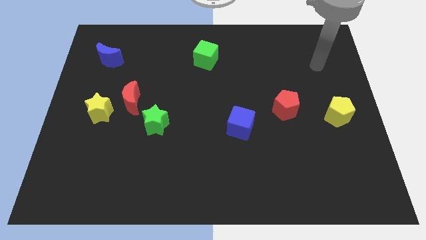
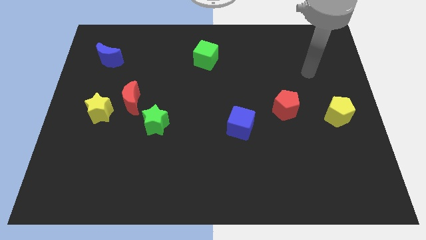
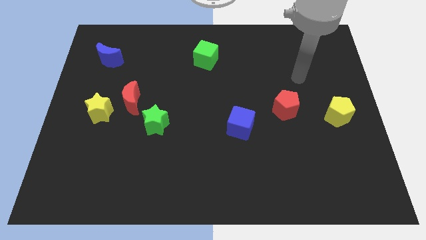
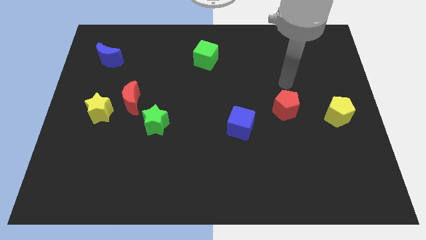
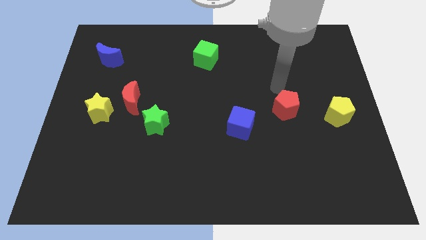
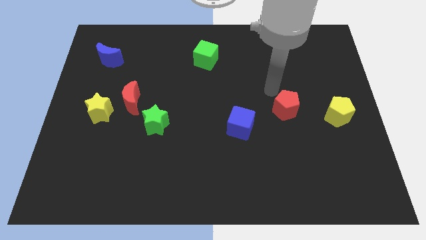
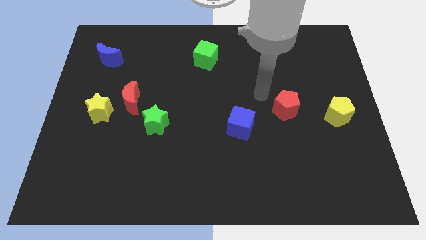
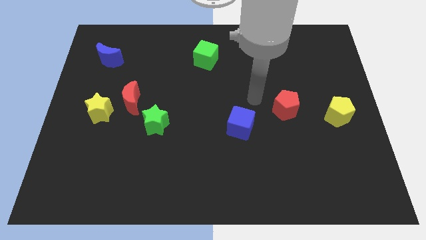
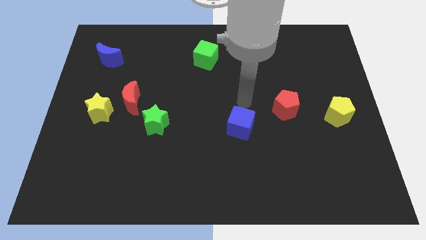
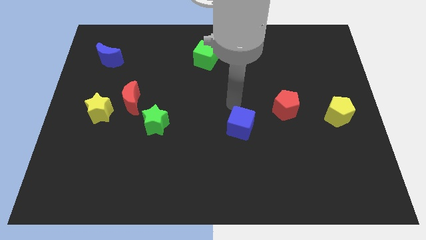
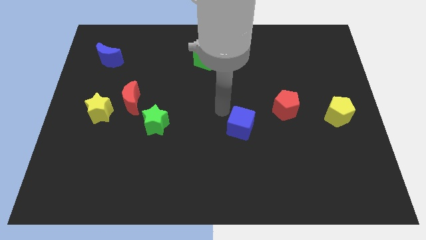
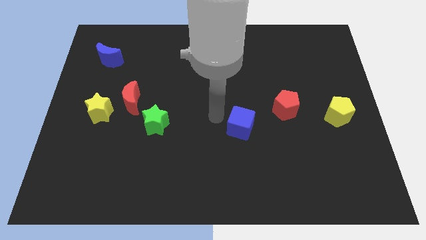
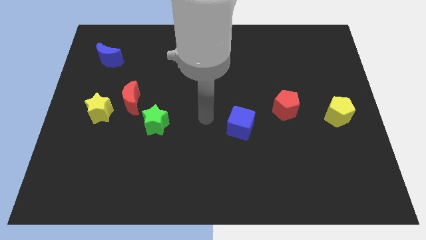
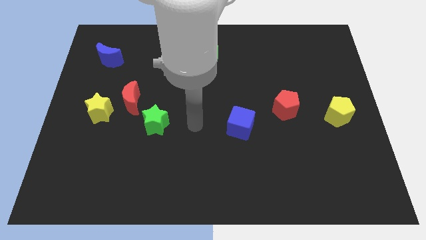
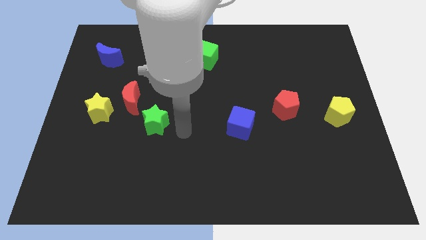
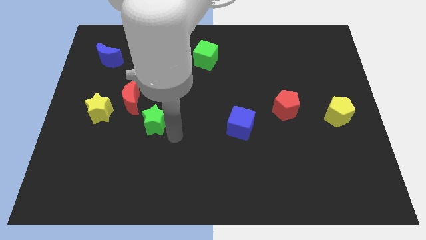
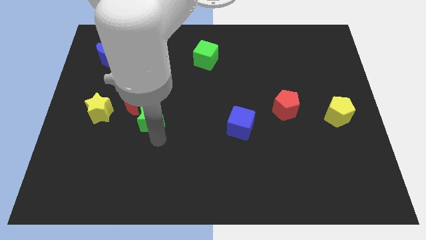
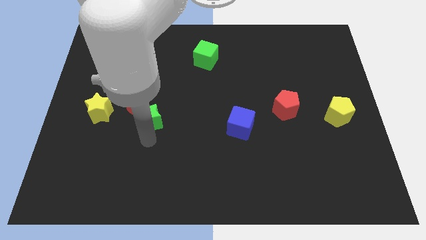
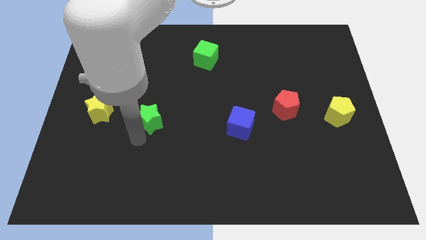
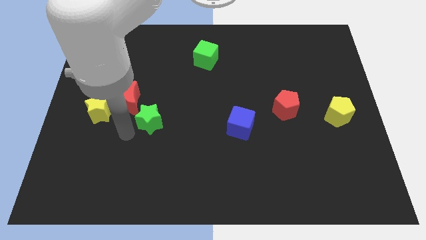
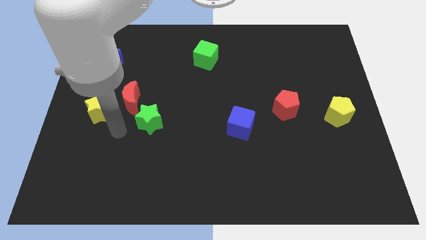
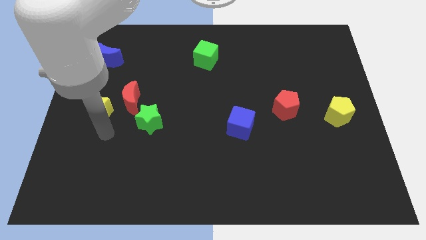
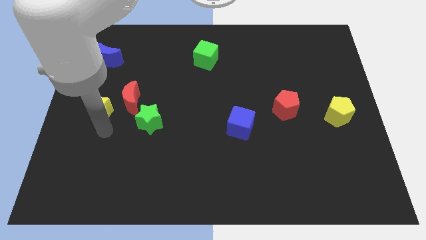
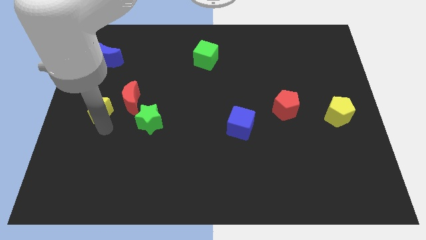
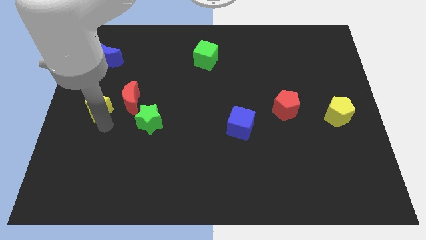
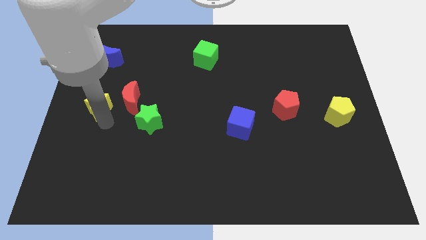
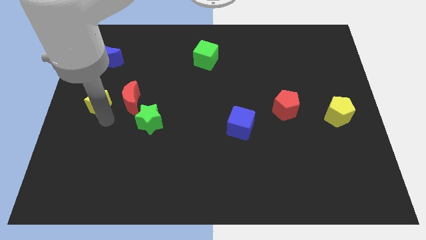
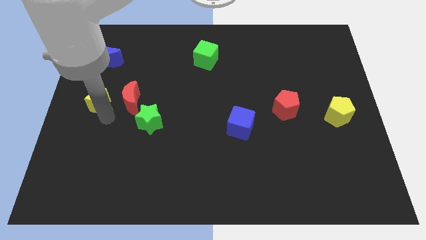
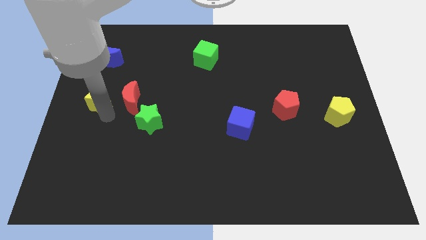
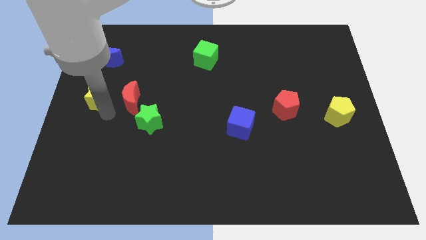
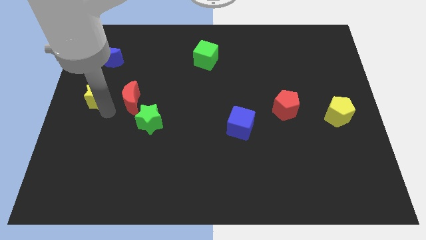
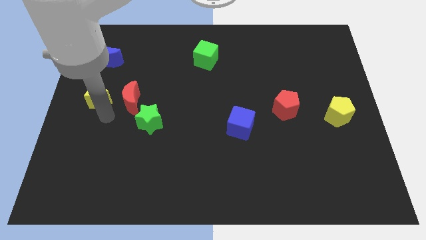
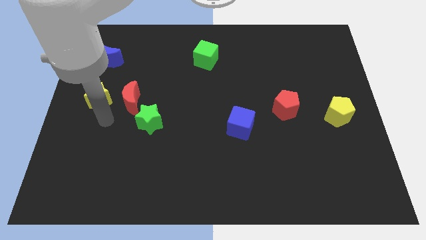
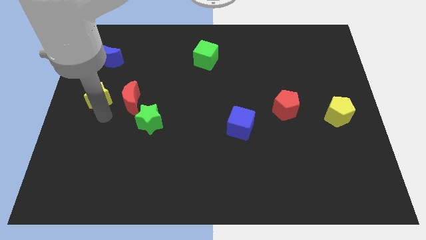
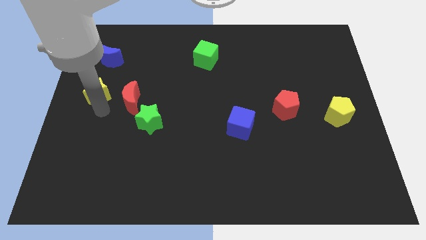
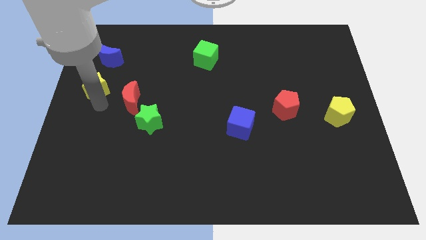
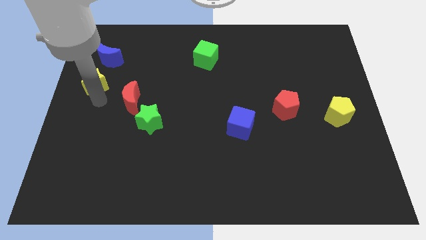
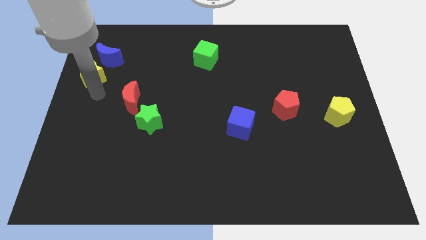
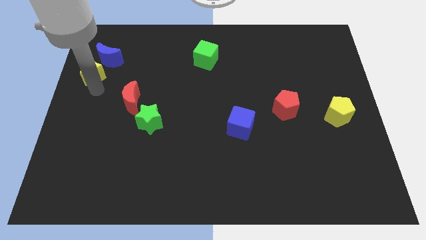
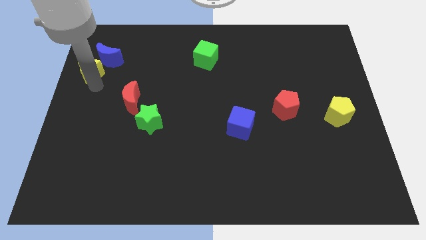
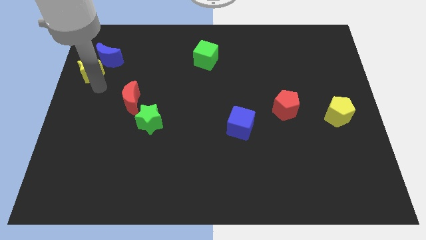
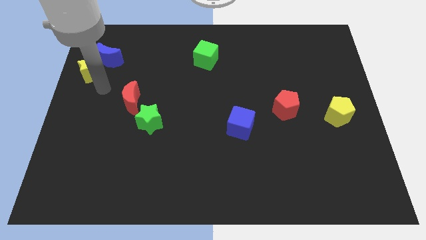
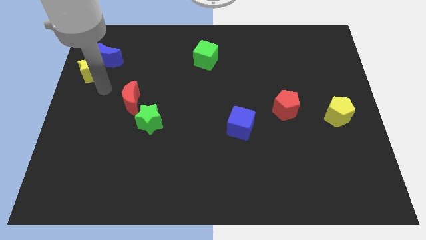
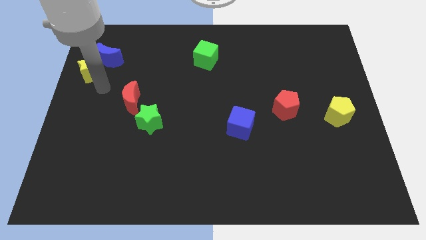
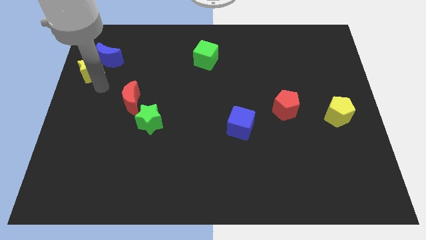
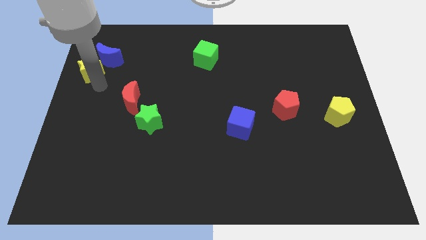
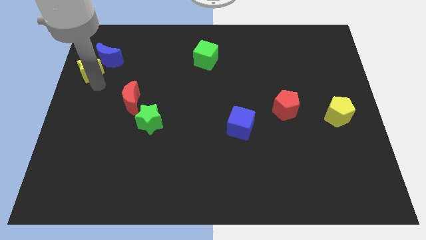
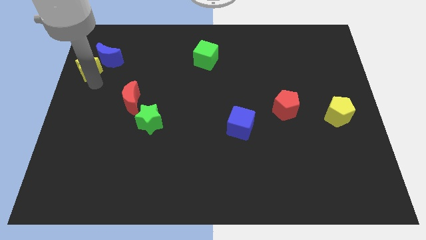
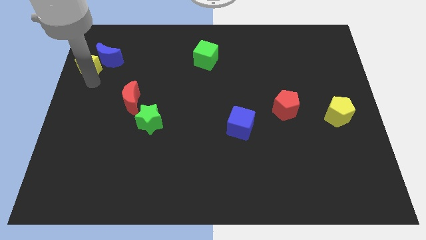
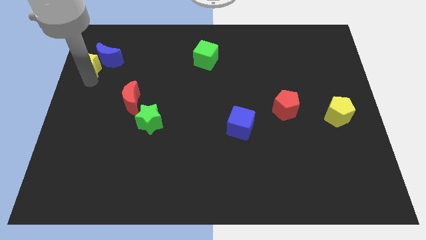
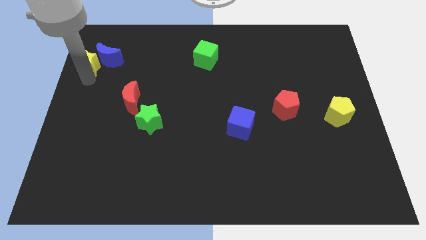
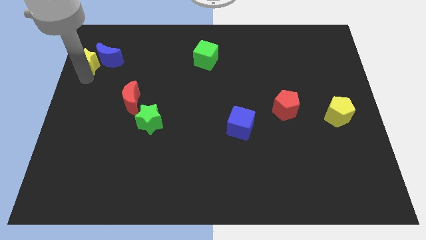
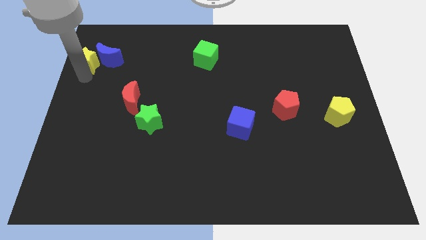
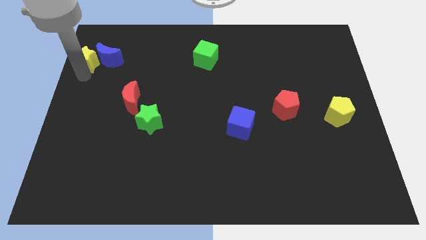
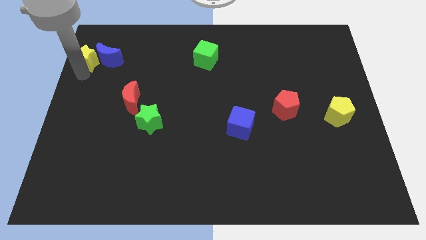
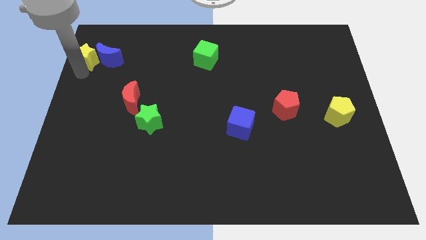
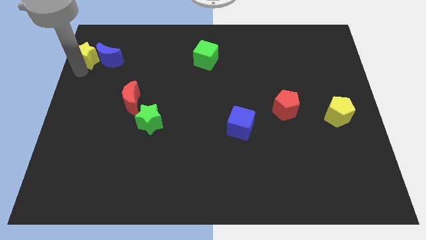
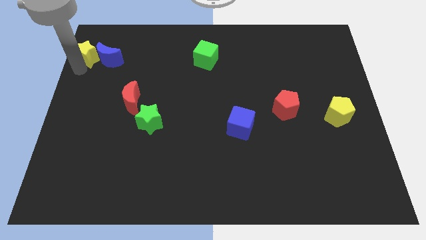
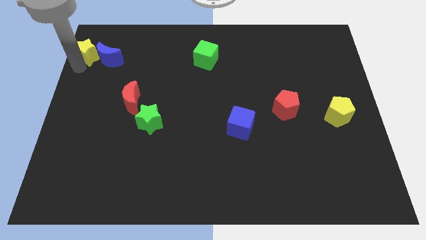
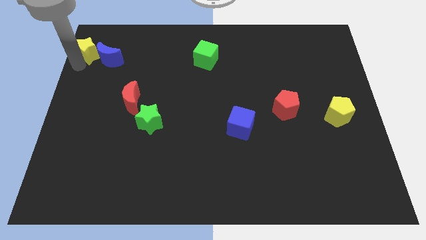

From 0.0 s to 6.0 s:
push the yellow star to the top left of the board

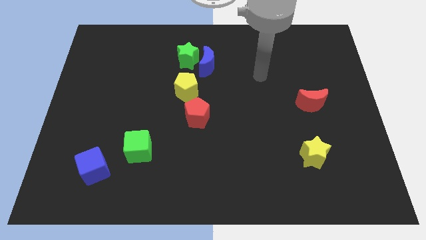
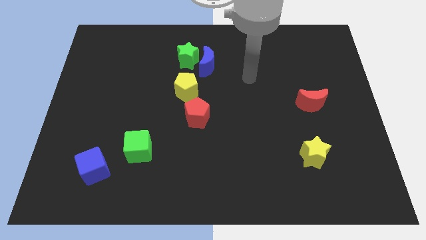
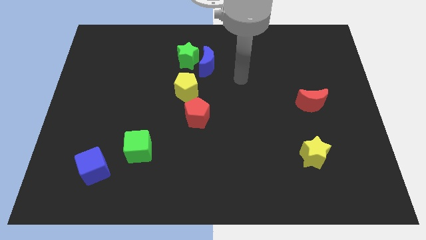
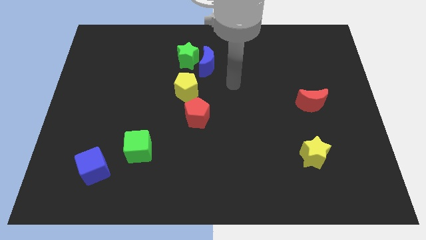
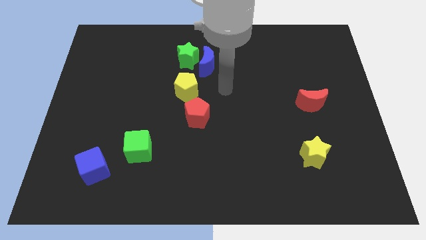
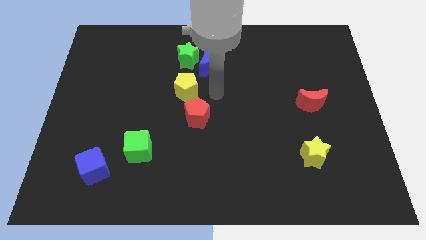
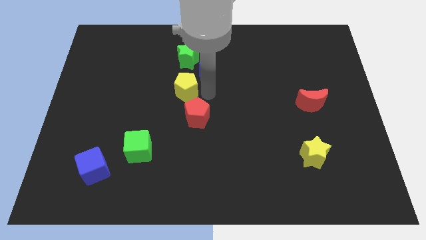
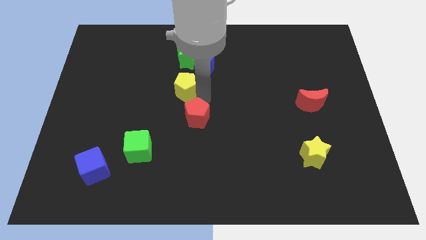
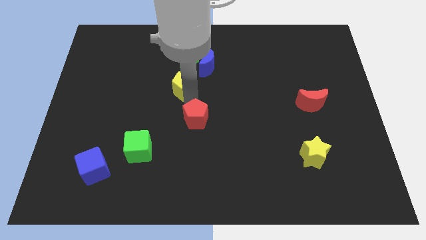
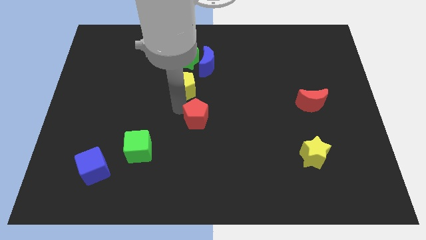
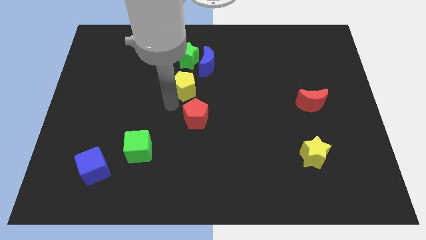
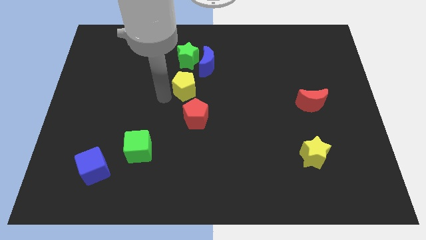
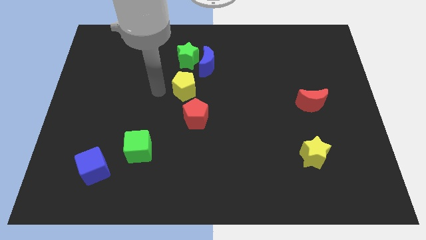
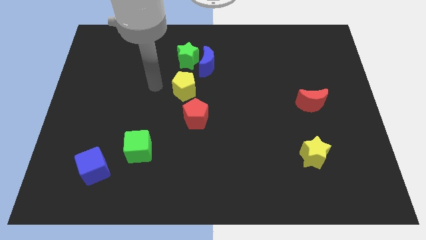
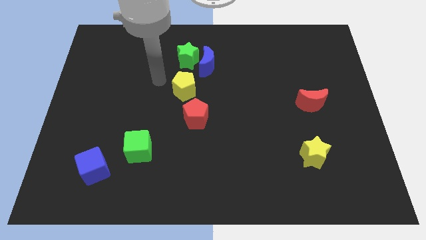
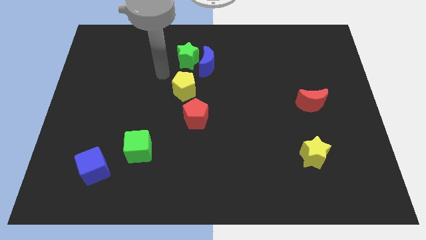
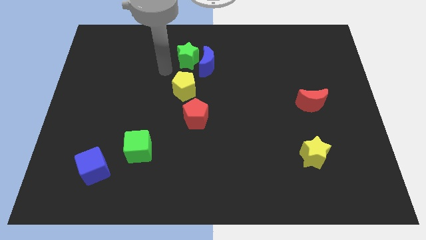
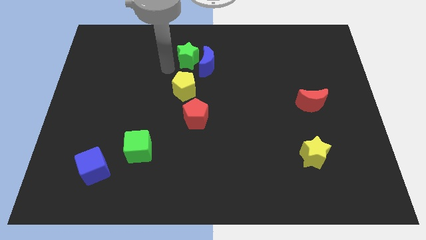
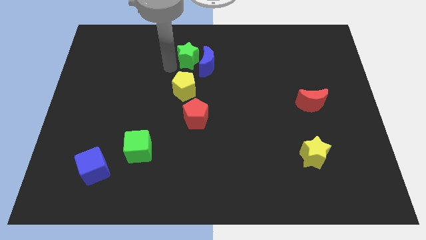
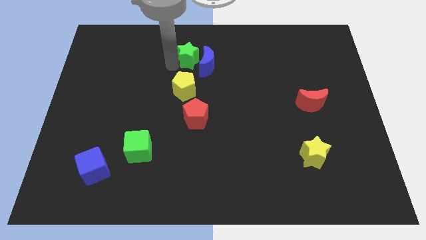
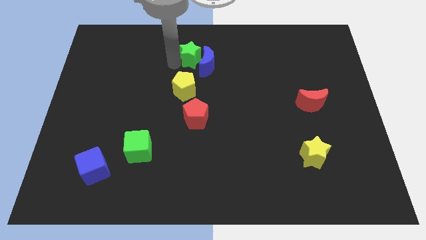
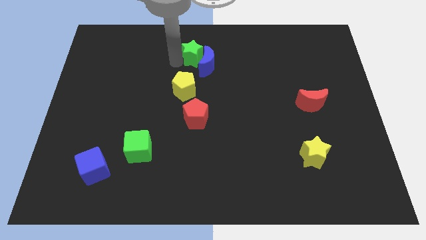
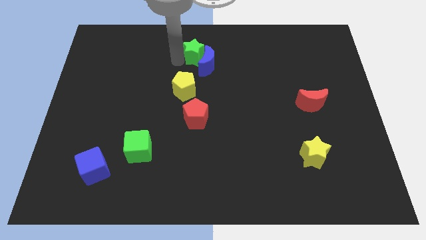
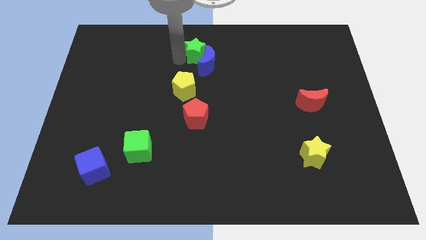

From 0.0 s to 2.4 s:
move the green star to the top
